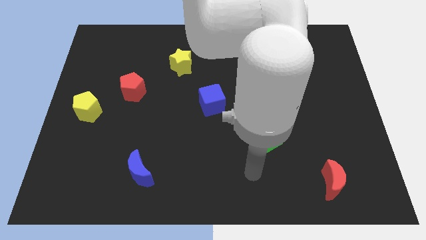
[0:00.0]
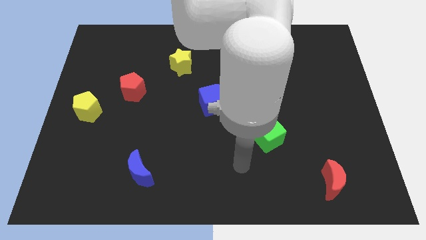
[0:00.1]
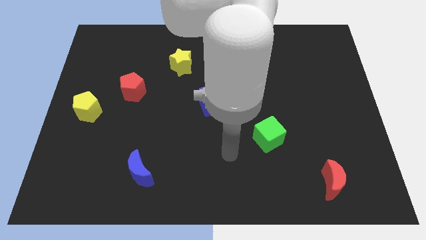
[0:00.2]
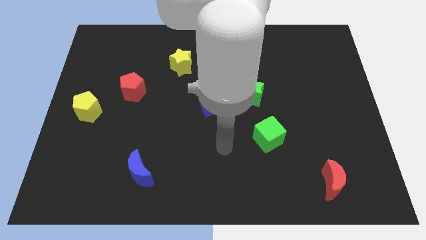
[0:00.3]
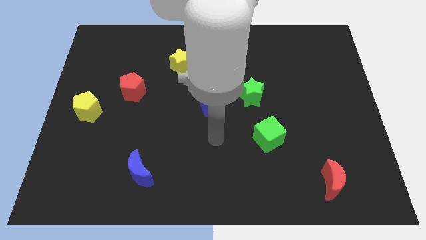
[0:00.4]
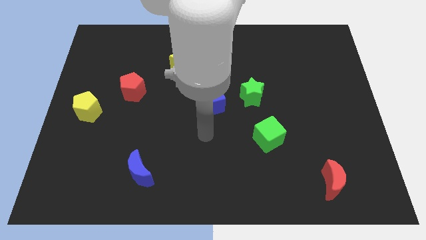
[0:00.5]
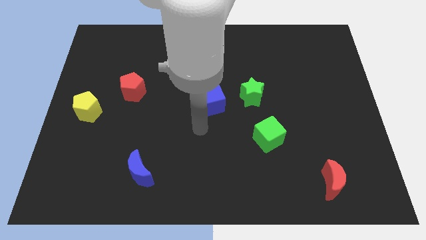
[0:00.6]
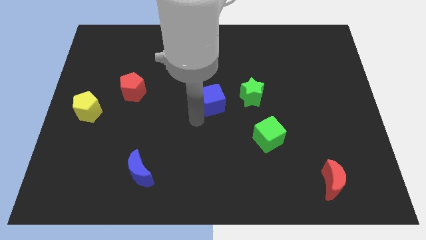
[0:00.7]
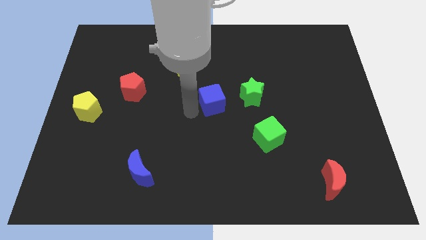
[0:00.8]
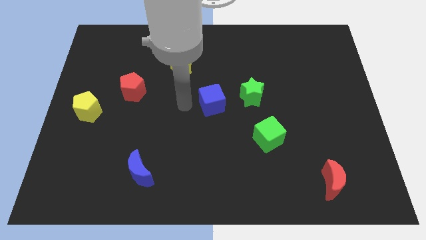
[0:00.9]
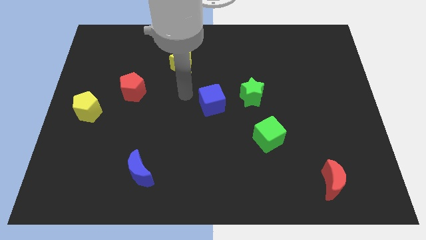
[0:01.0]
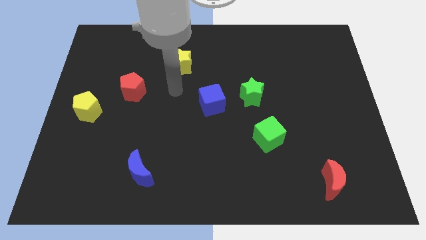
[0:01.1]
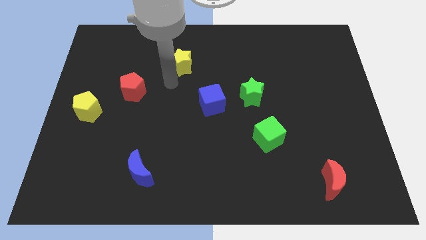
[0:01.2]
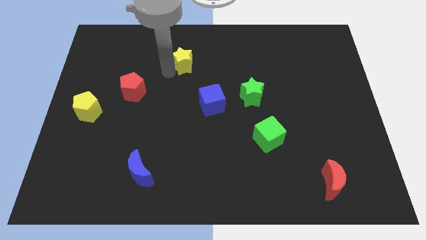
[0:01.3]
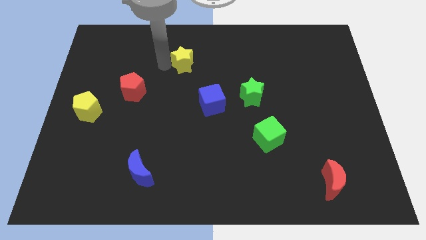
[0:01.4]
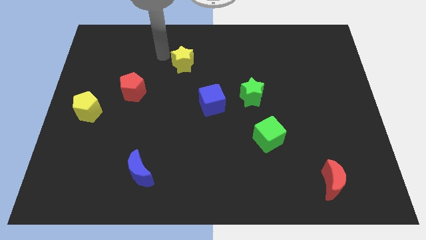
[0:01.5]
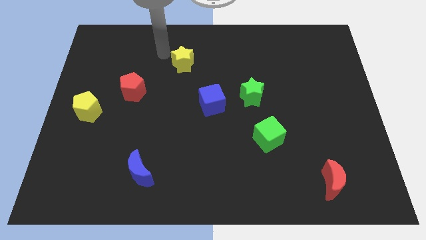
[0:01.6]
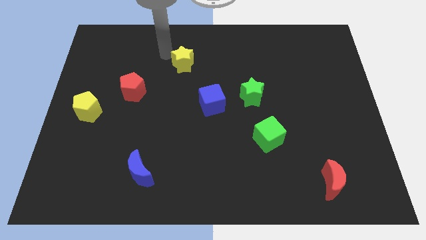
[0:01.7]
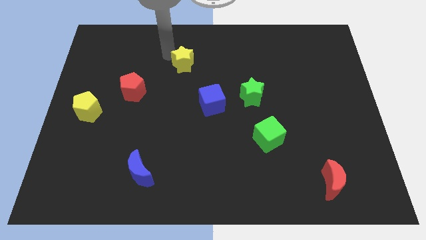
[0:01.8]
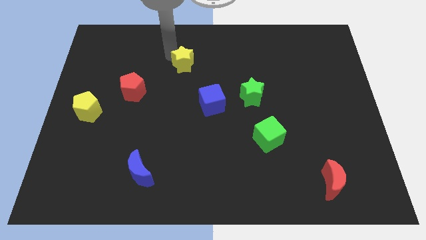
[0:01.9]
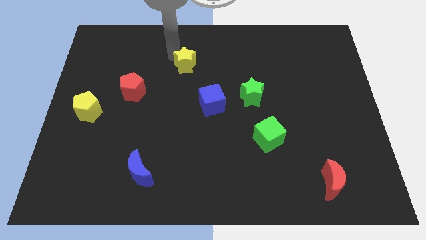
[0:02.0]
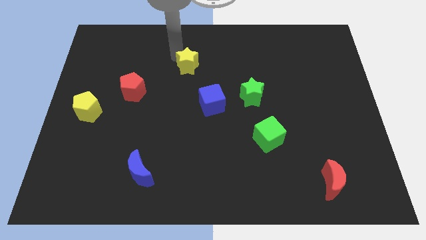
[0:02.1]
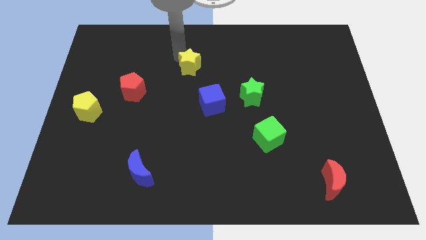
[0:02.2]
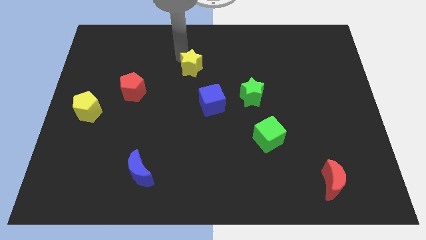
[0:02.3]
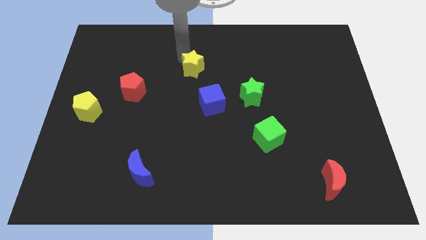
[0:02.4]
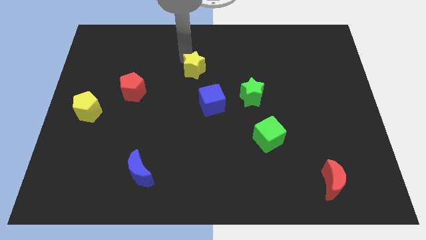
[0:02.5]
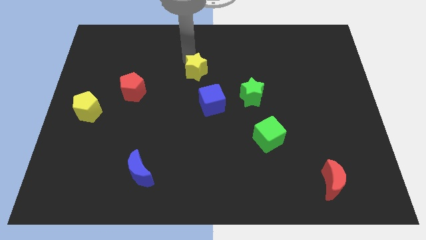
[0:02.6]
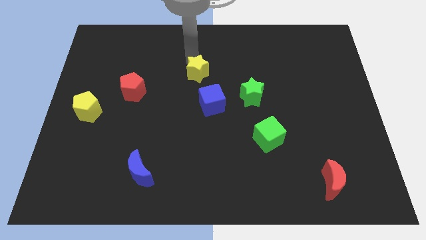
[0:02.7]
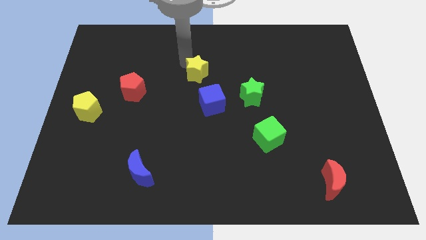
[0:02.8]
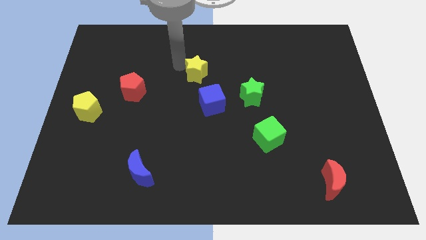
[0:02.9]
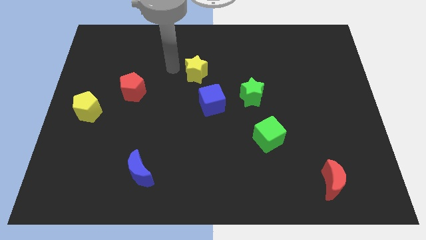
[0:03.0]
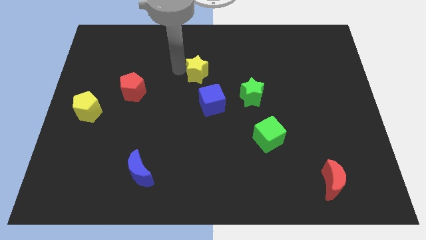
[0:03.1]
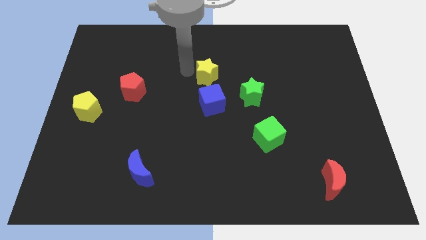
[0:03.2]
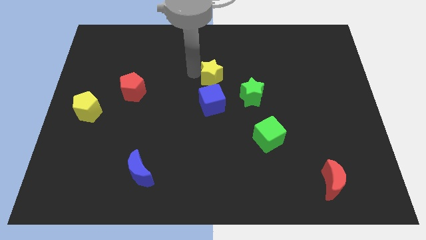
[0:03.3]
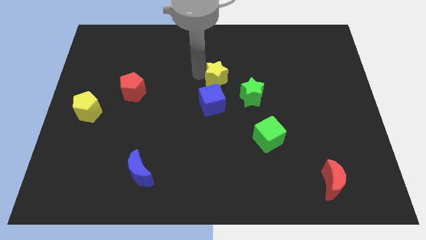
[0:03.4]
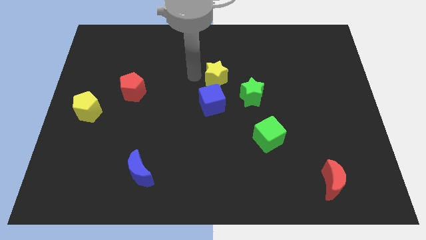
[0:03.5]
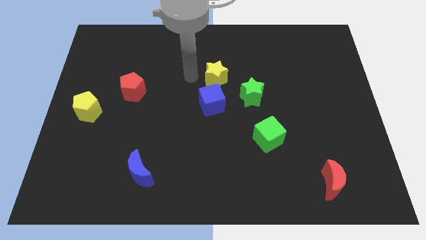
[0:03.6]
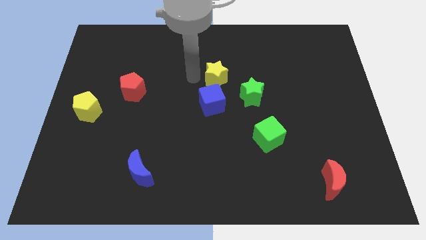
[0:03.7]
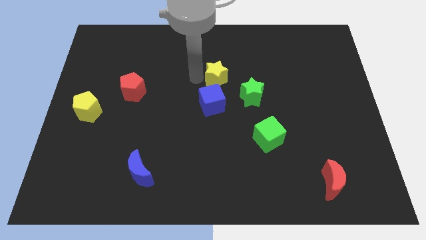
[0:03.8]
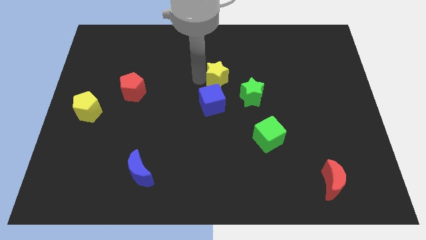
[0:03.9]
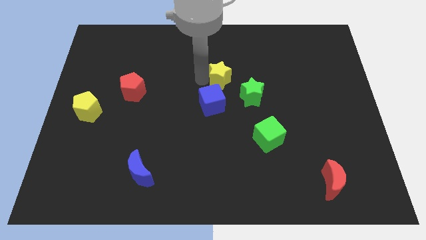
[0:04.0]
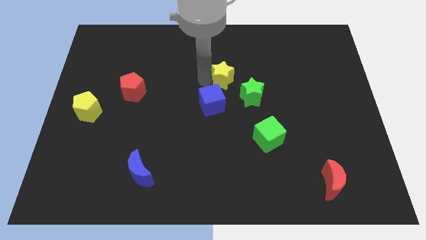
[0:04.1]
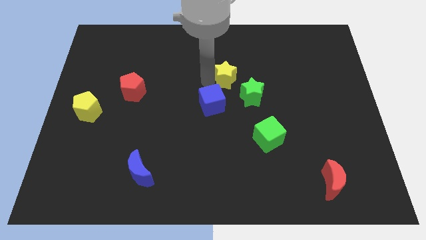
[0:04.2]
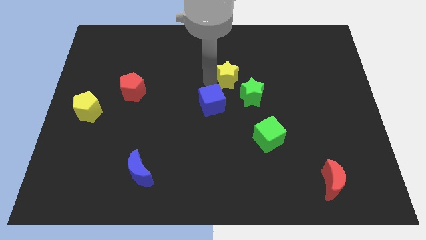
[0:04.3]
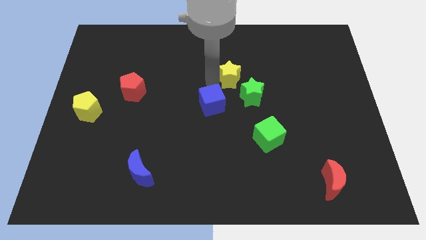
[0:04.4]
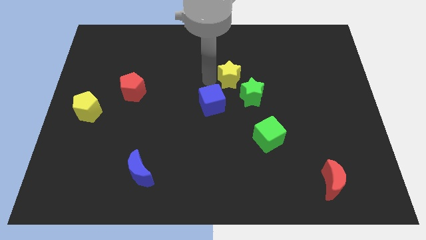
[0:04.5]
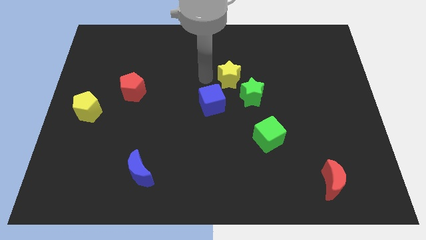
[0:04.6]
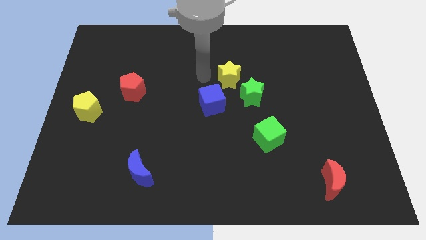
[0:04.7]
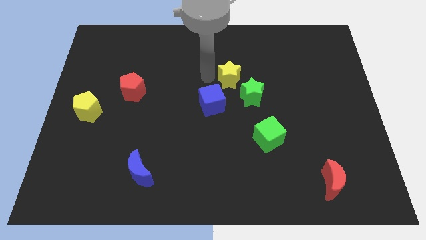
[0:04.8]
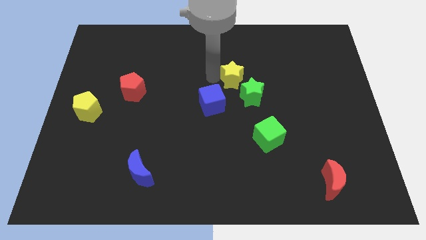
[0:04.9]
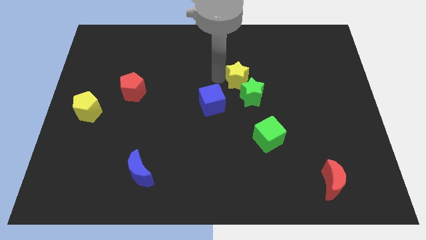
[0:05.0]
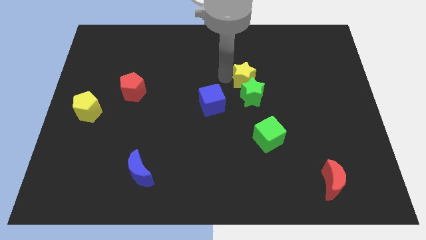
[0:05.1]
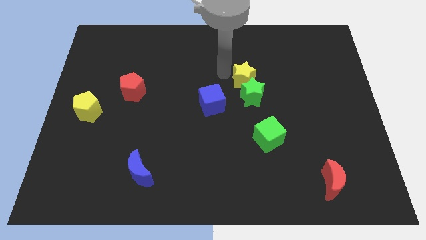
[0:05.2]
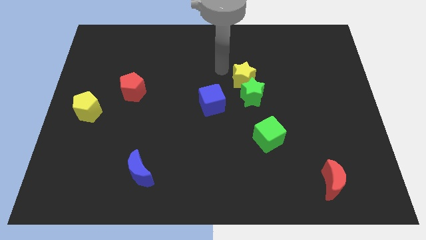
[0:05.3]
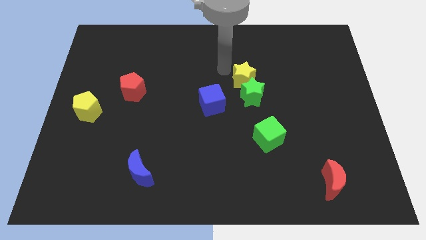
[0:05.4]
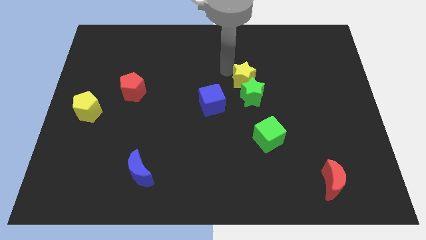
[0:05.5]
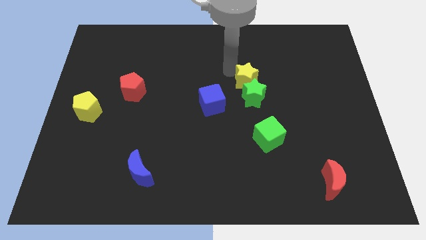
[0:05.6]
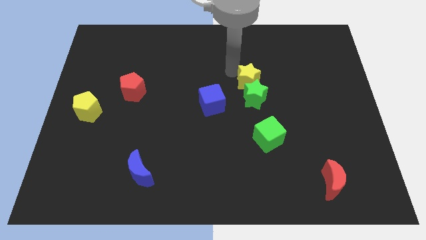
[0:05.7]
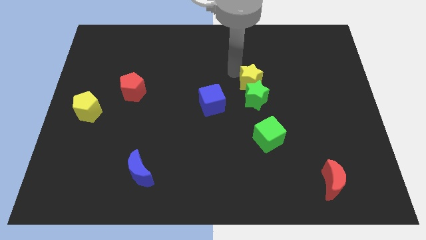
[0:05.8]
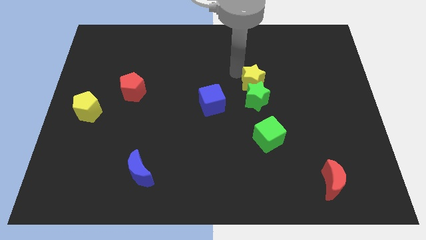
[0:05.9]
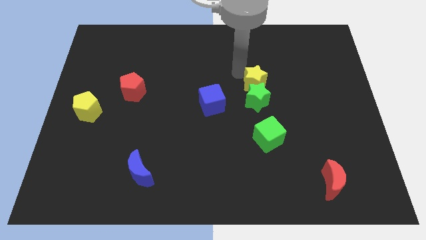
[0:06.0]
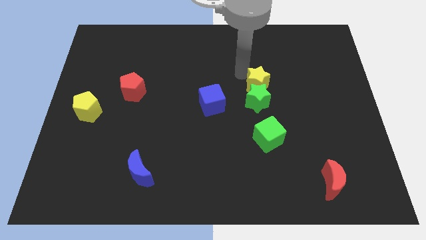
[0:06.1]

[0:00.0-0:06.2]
move the yellow star to the top of the green cube

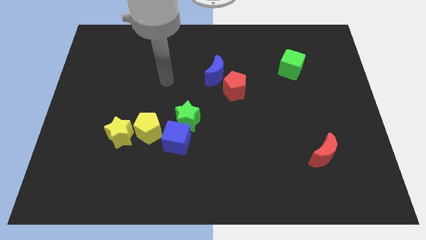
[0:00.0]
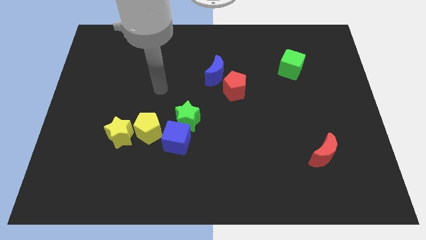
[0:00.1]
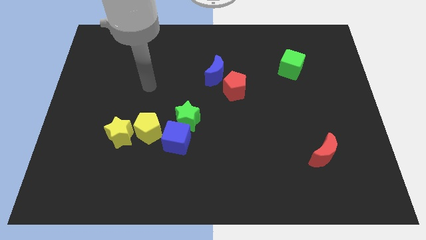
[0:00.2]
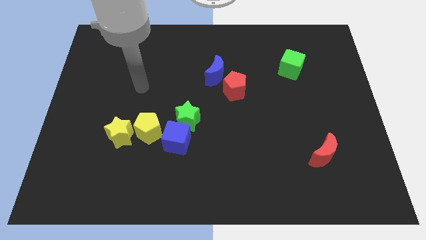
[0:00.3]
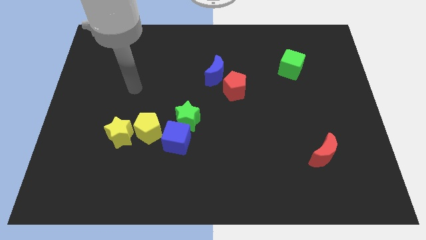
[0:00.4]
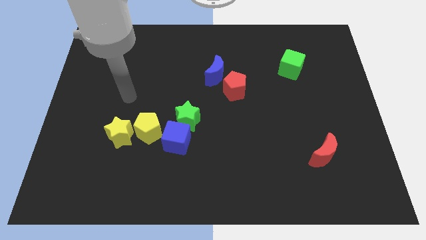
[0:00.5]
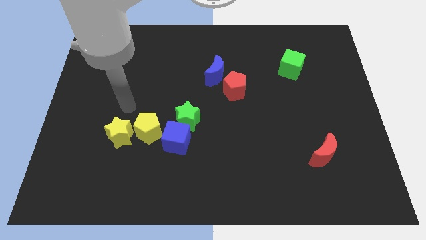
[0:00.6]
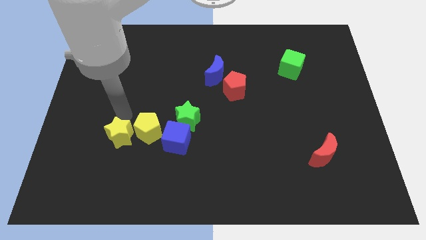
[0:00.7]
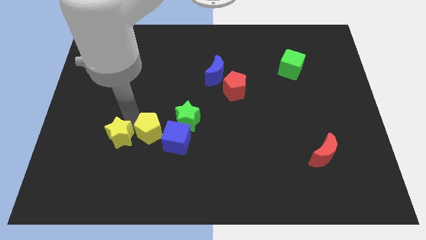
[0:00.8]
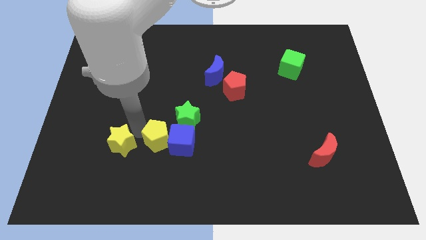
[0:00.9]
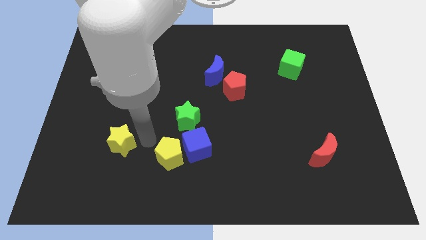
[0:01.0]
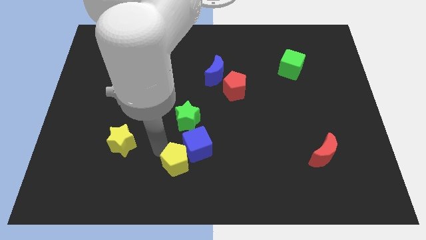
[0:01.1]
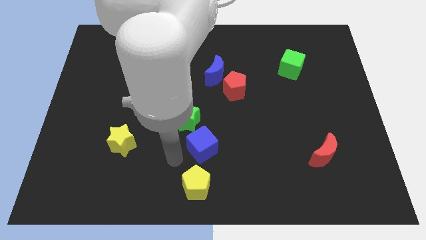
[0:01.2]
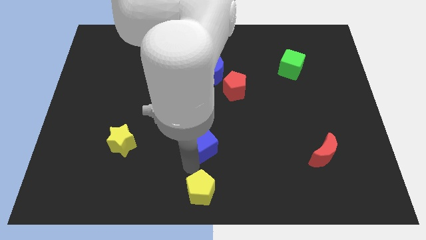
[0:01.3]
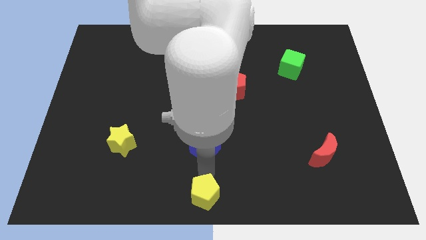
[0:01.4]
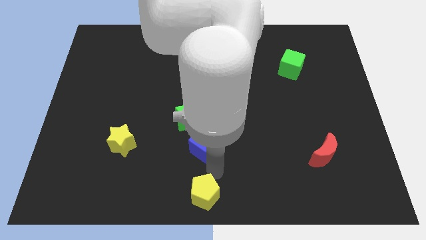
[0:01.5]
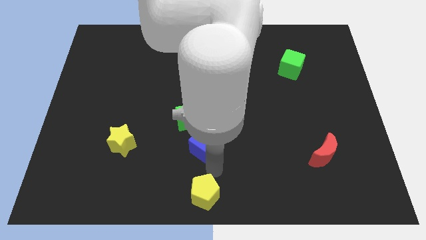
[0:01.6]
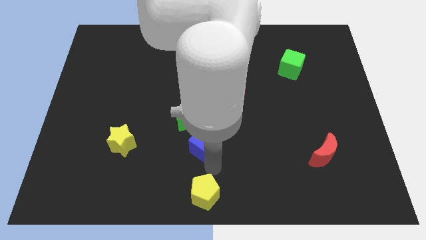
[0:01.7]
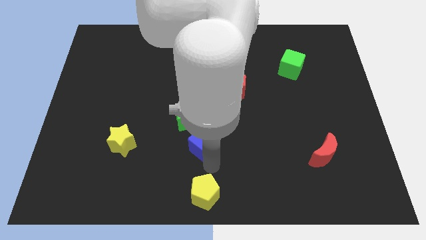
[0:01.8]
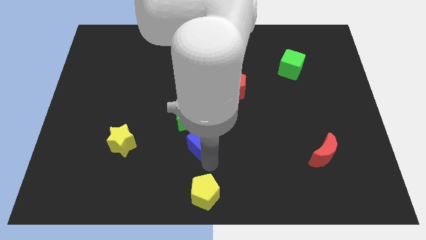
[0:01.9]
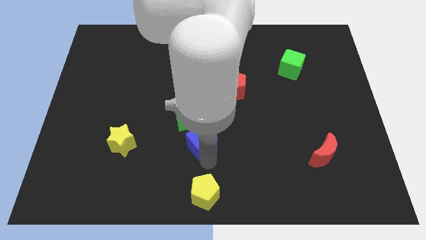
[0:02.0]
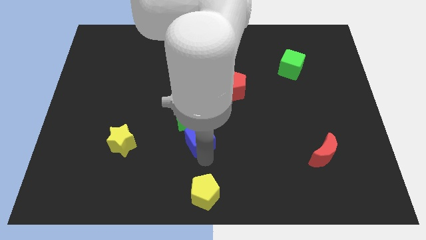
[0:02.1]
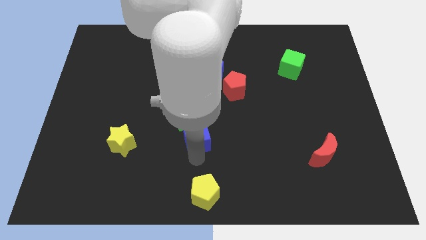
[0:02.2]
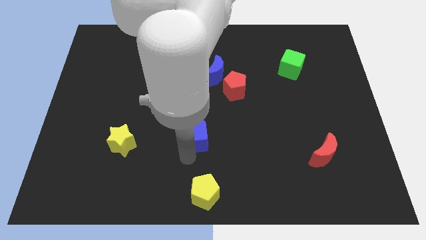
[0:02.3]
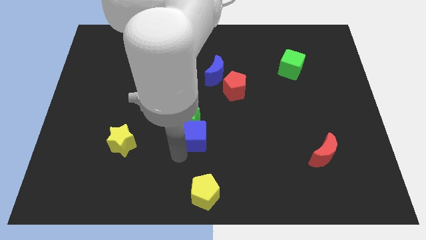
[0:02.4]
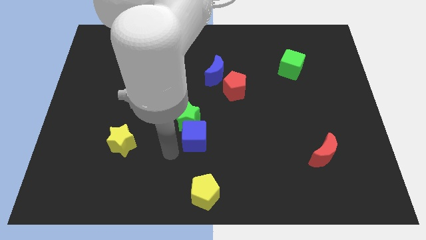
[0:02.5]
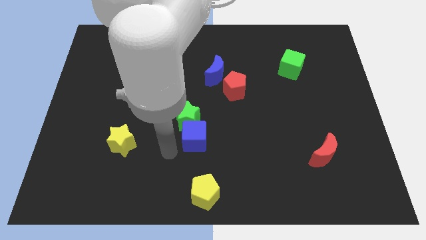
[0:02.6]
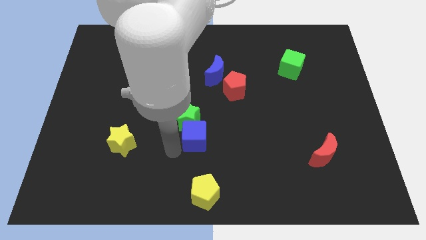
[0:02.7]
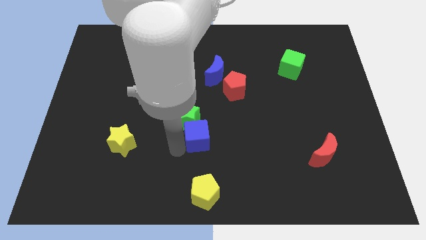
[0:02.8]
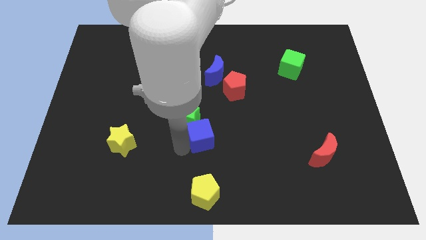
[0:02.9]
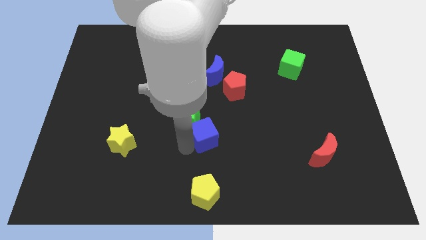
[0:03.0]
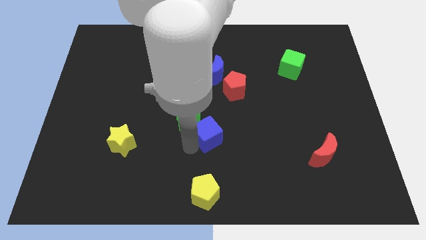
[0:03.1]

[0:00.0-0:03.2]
push the blue cube just right of the green star
